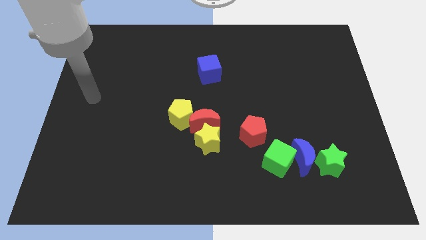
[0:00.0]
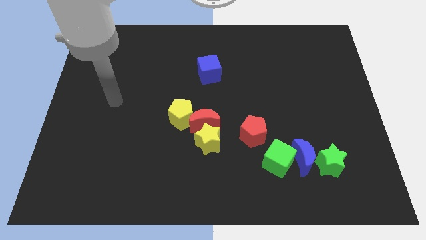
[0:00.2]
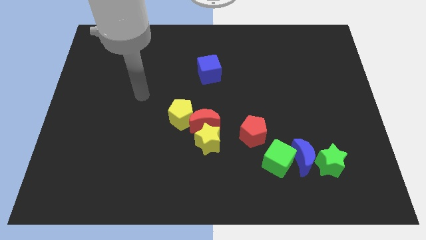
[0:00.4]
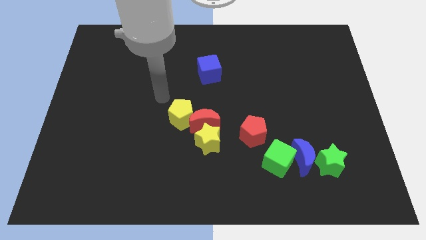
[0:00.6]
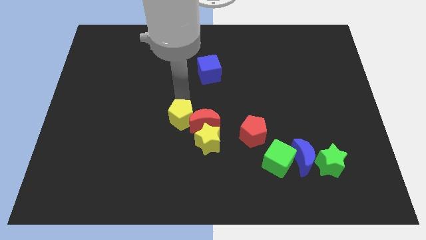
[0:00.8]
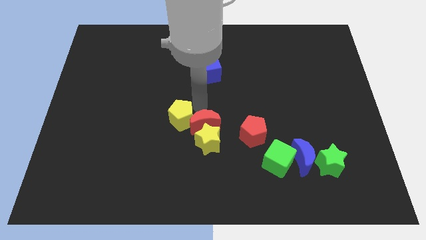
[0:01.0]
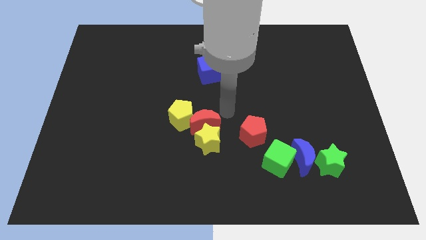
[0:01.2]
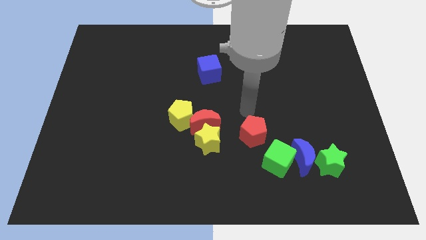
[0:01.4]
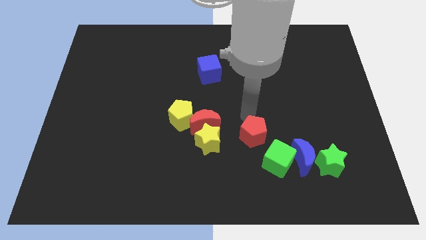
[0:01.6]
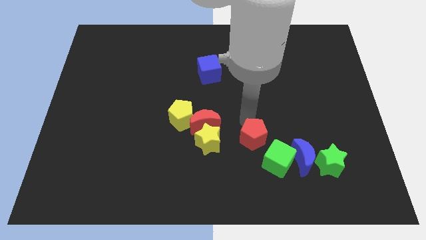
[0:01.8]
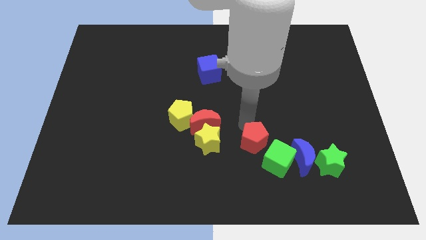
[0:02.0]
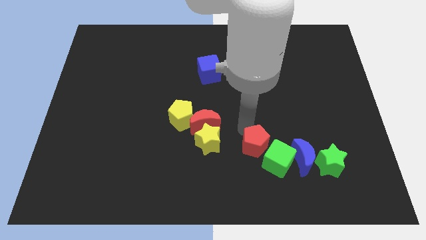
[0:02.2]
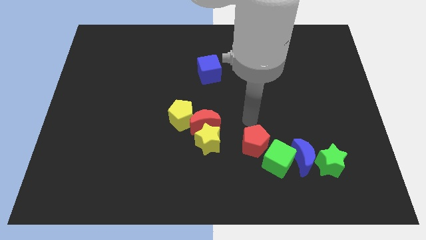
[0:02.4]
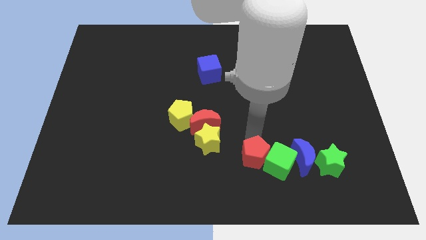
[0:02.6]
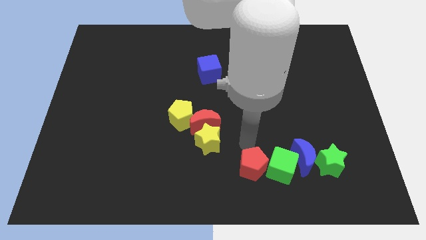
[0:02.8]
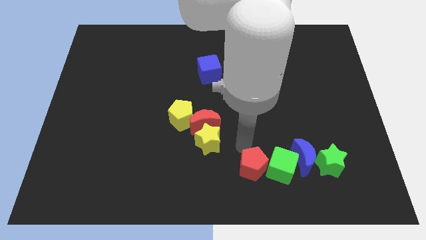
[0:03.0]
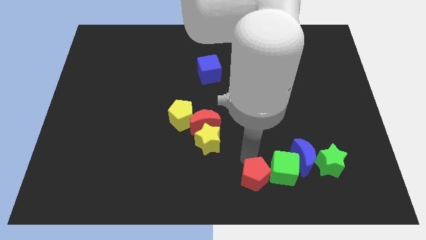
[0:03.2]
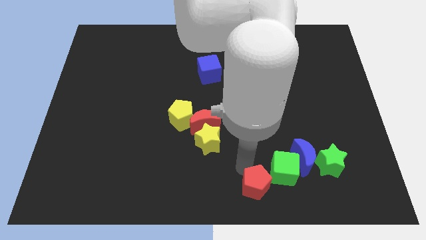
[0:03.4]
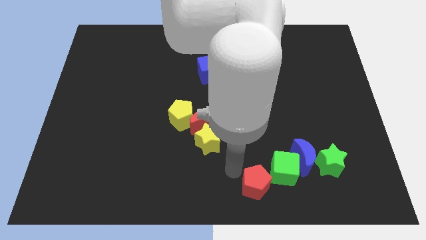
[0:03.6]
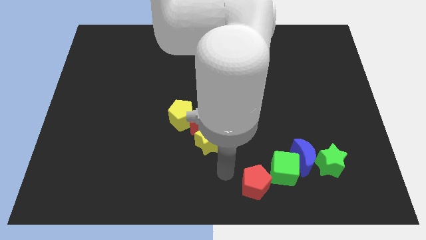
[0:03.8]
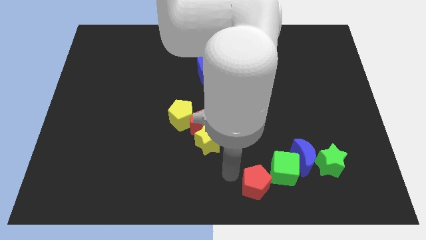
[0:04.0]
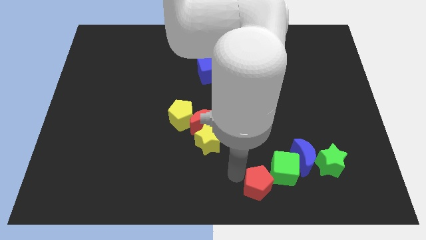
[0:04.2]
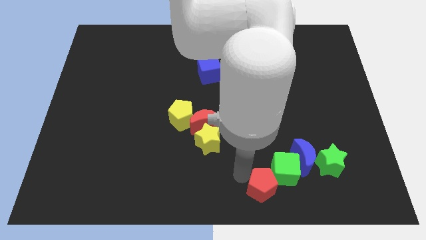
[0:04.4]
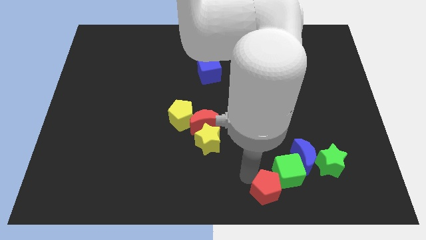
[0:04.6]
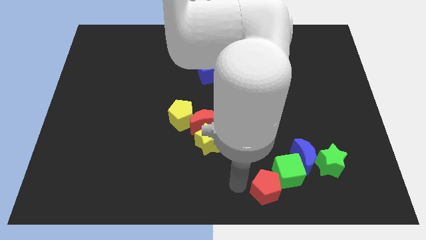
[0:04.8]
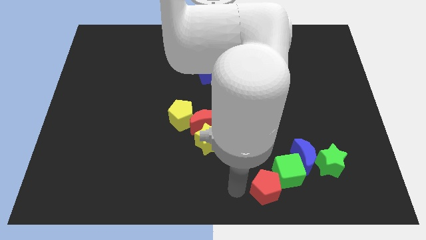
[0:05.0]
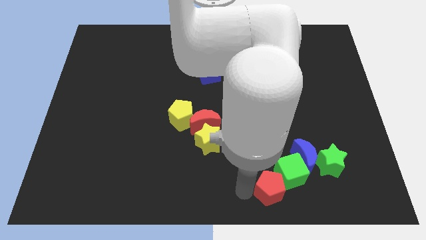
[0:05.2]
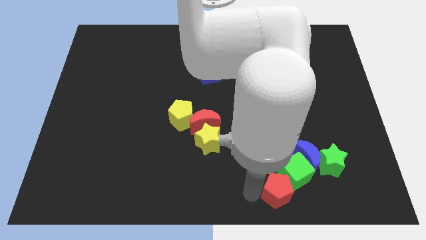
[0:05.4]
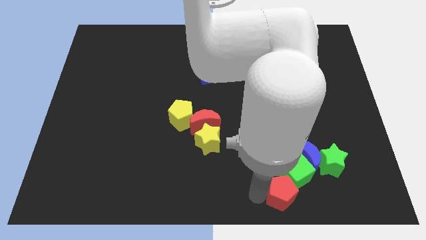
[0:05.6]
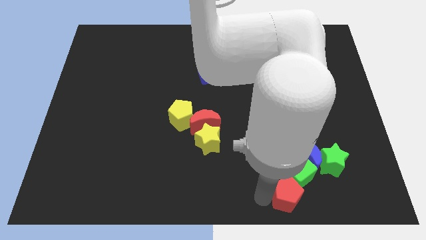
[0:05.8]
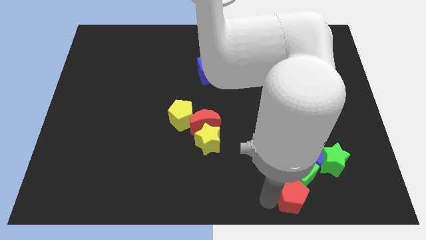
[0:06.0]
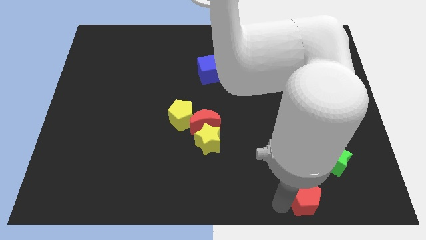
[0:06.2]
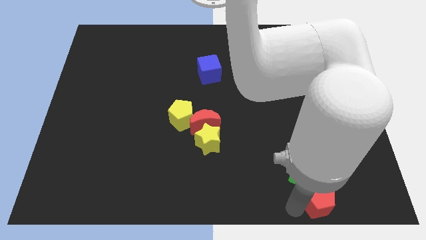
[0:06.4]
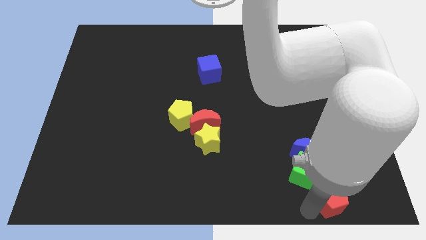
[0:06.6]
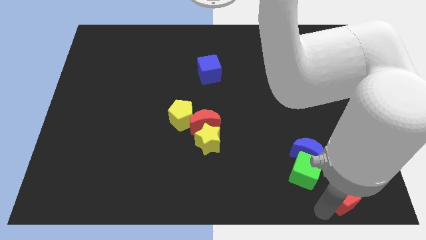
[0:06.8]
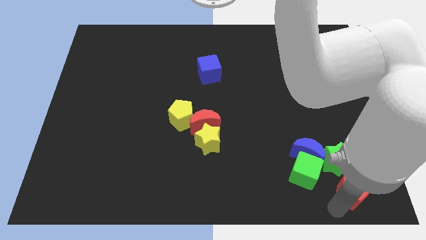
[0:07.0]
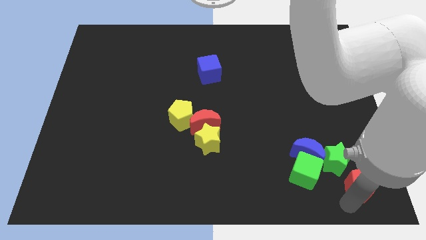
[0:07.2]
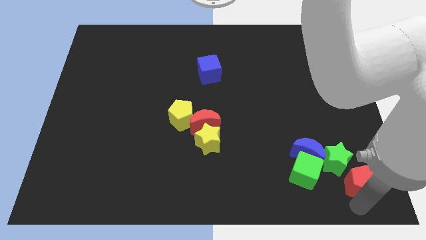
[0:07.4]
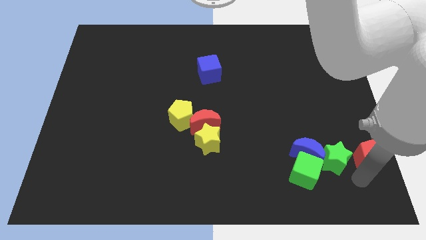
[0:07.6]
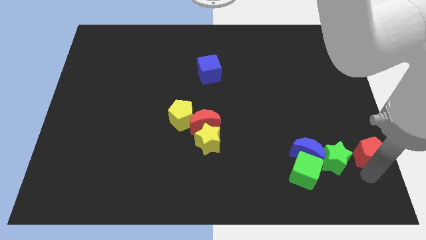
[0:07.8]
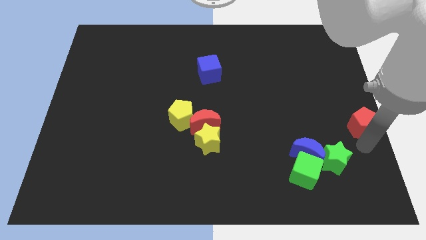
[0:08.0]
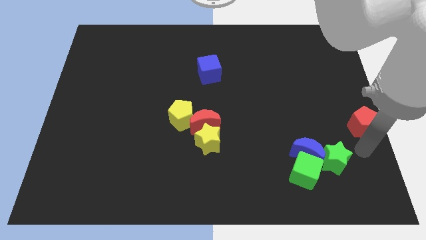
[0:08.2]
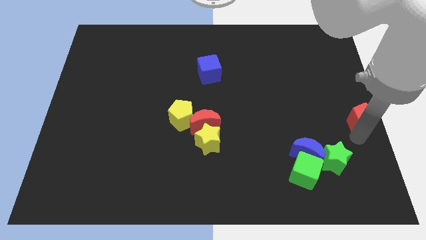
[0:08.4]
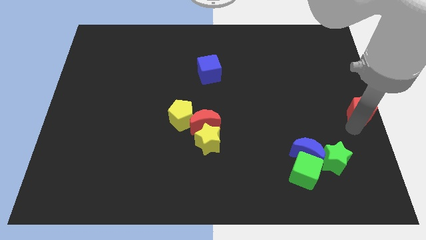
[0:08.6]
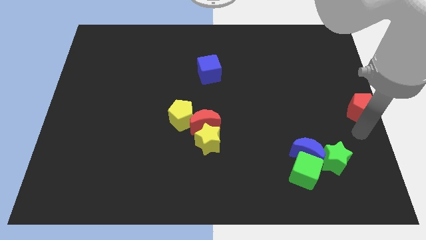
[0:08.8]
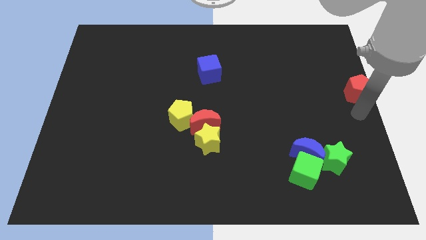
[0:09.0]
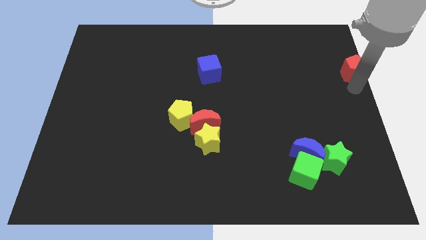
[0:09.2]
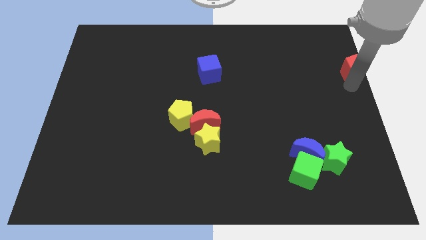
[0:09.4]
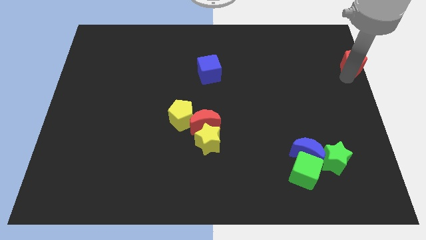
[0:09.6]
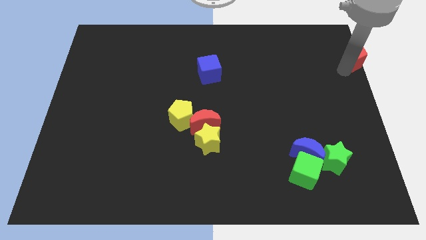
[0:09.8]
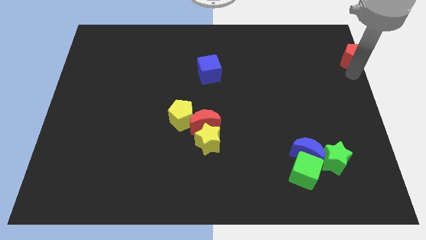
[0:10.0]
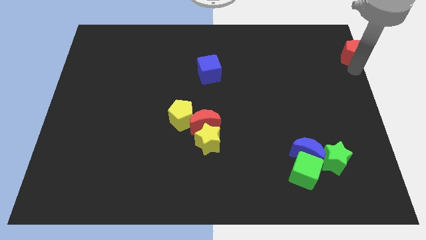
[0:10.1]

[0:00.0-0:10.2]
move the red pentagon to the top right of the board

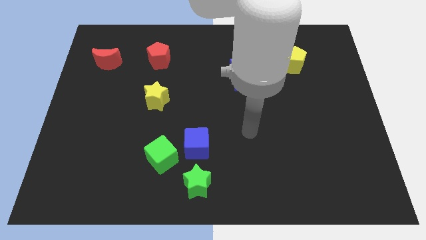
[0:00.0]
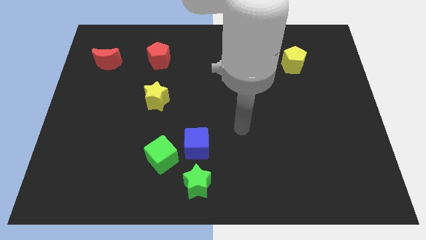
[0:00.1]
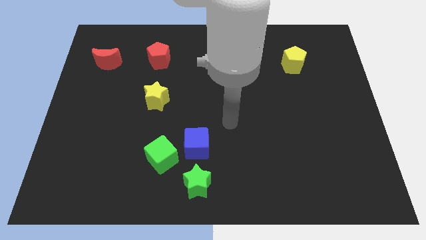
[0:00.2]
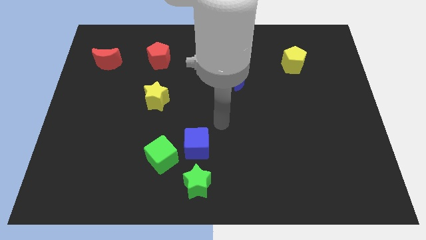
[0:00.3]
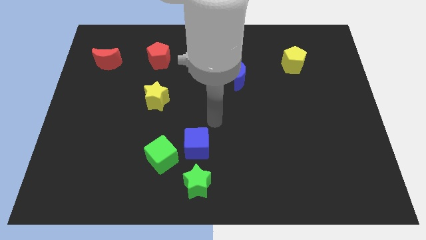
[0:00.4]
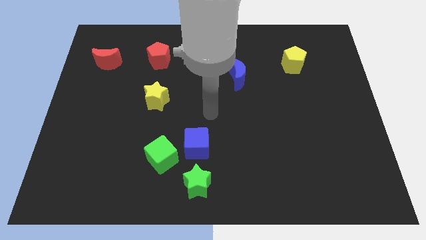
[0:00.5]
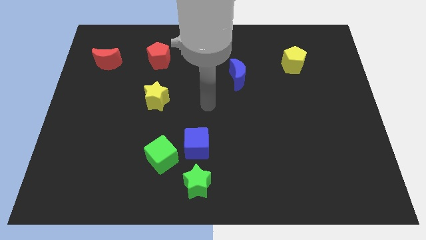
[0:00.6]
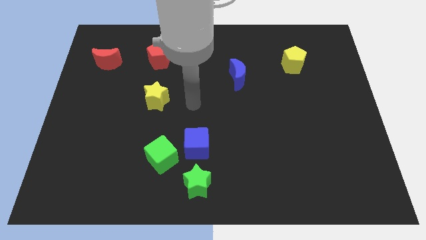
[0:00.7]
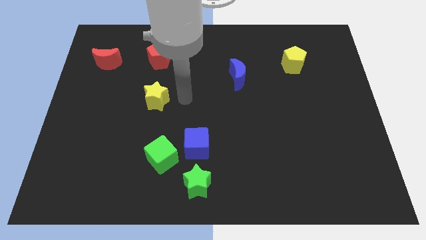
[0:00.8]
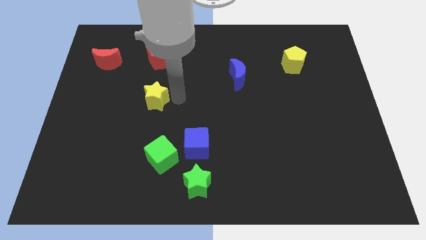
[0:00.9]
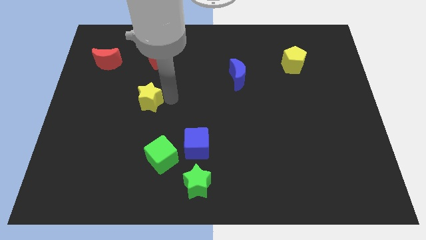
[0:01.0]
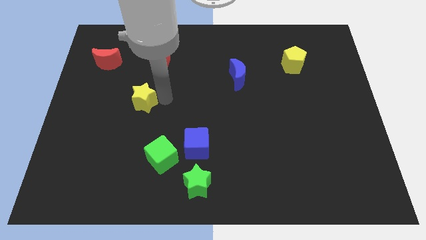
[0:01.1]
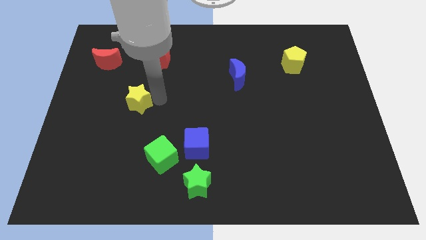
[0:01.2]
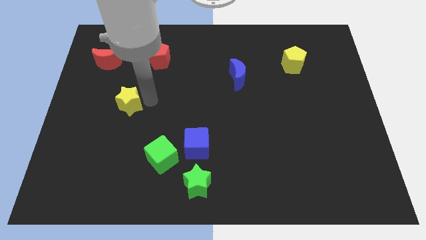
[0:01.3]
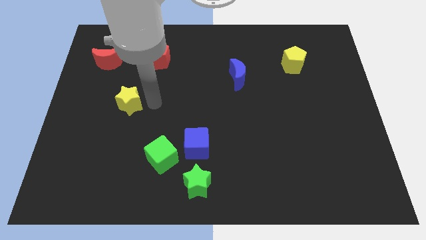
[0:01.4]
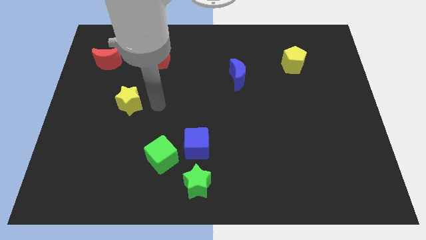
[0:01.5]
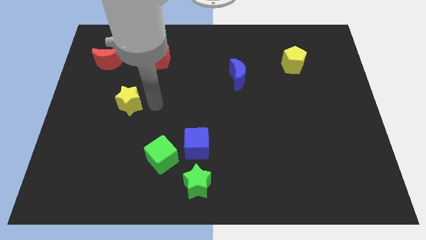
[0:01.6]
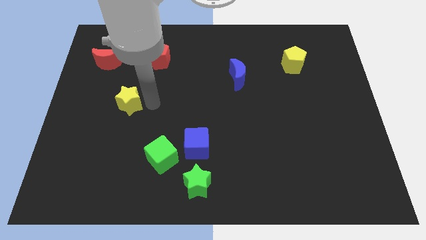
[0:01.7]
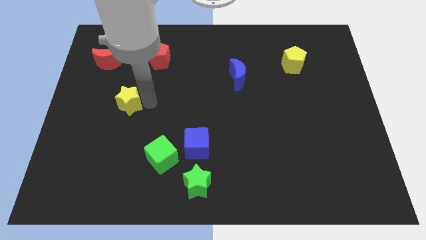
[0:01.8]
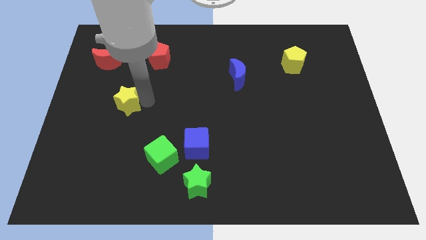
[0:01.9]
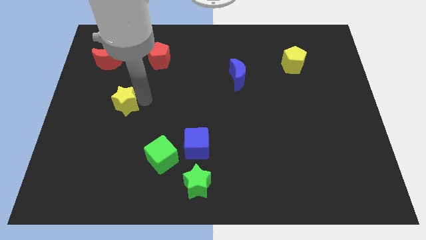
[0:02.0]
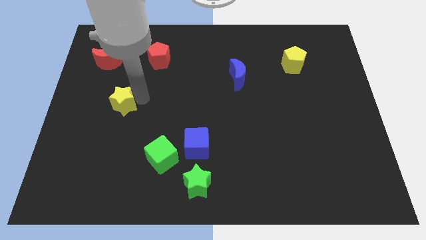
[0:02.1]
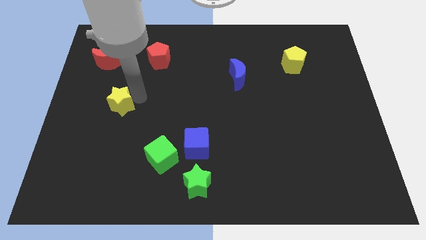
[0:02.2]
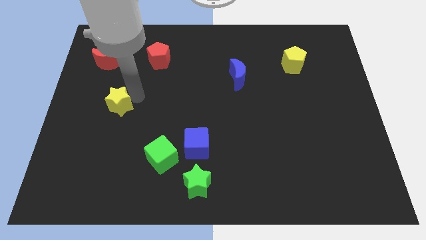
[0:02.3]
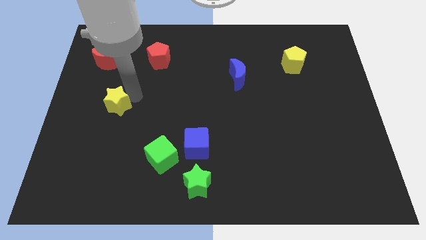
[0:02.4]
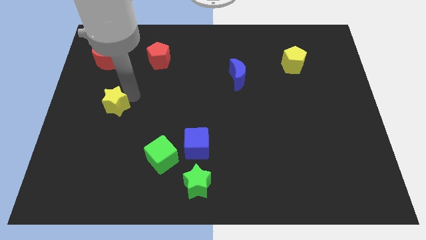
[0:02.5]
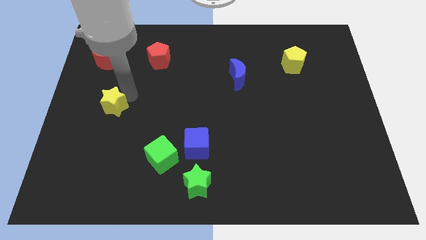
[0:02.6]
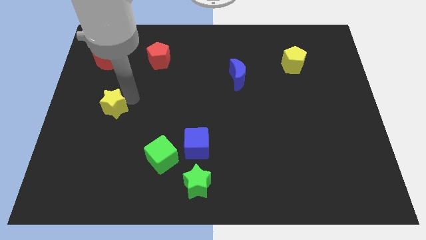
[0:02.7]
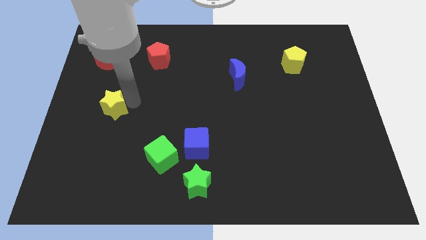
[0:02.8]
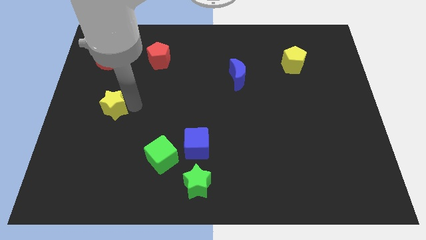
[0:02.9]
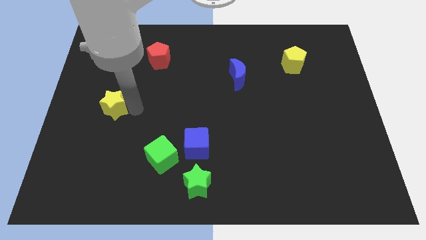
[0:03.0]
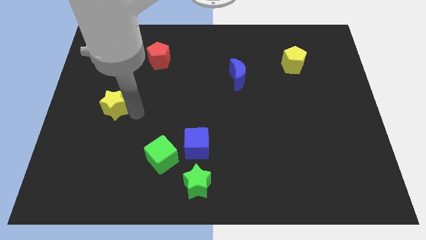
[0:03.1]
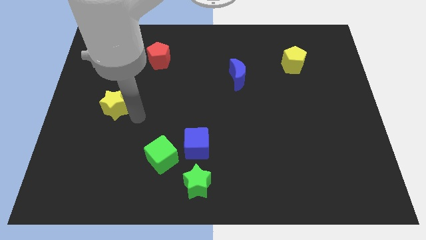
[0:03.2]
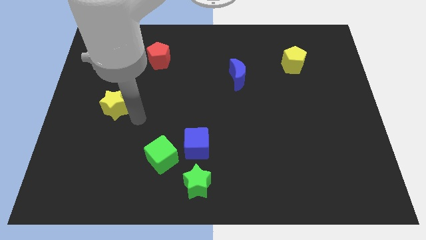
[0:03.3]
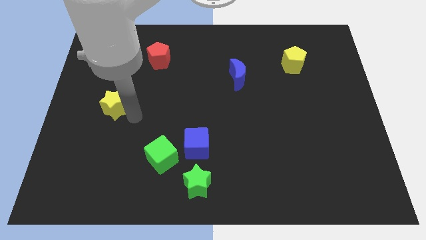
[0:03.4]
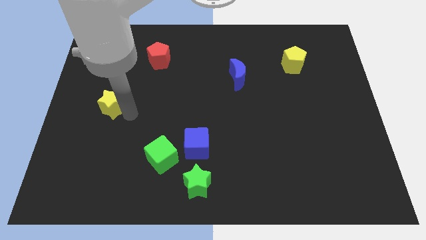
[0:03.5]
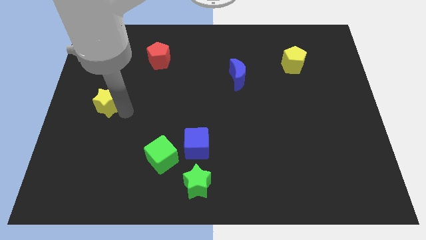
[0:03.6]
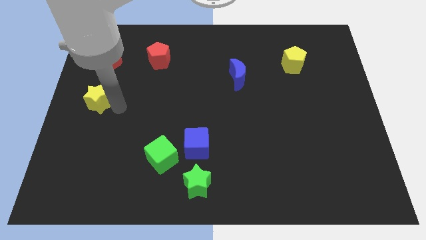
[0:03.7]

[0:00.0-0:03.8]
slide the yellow star to the left side of the board
